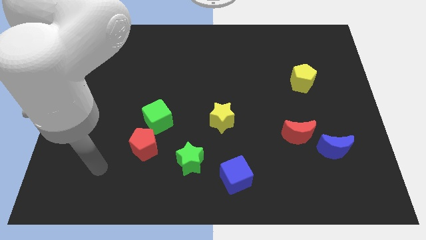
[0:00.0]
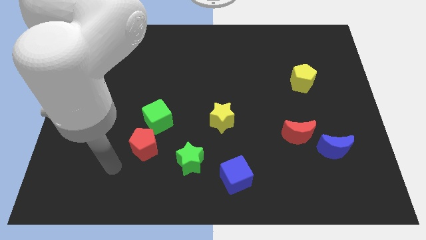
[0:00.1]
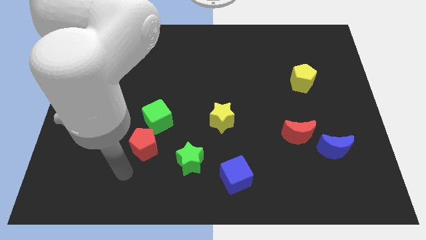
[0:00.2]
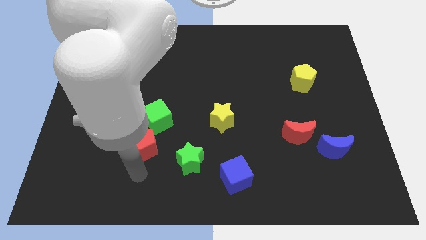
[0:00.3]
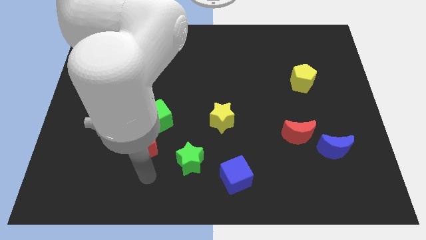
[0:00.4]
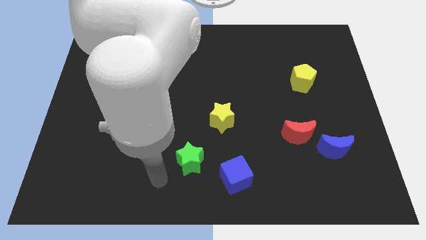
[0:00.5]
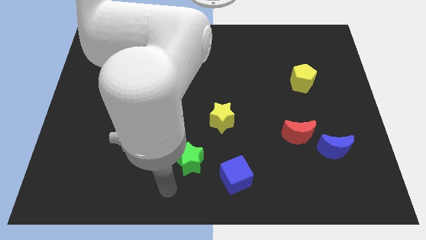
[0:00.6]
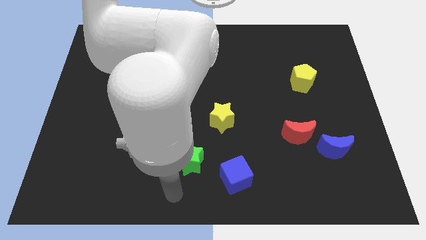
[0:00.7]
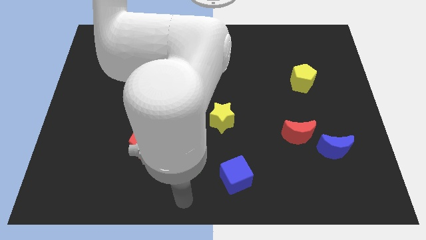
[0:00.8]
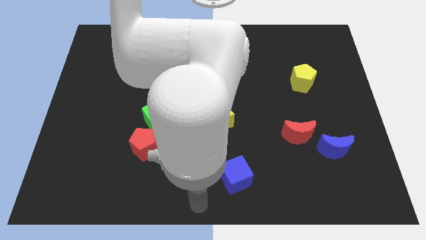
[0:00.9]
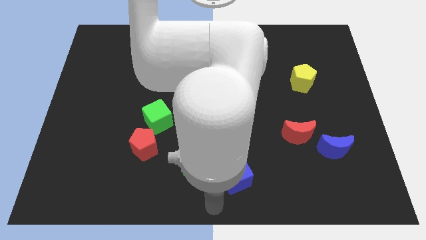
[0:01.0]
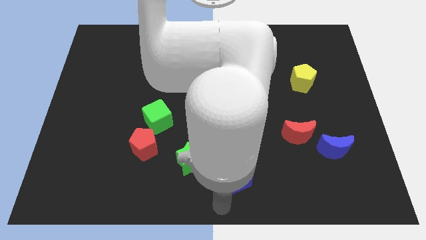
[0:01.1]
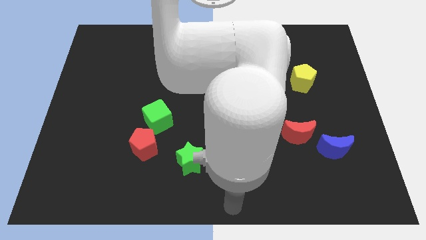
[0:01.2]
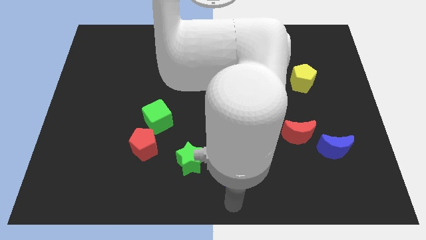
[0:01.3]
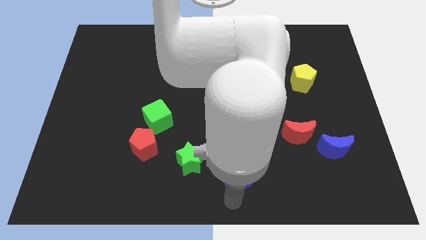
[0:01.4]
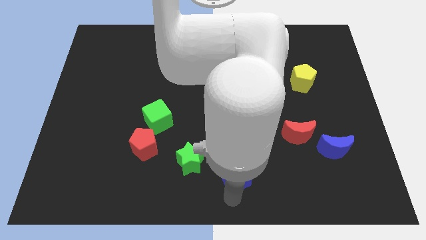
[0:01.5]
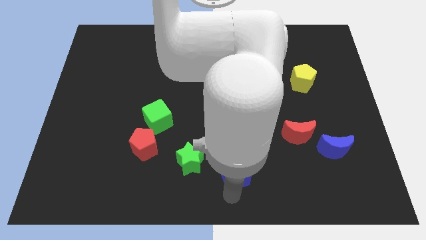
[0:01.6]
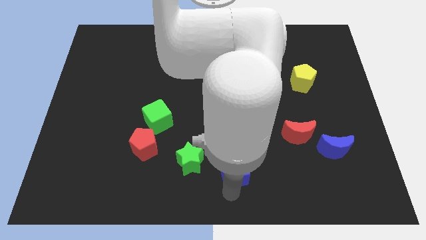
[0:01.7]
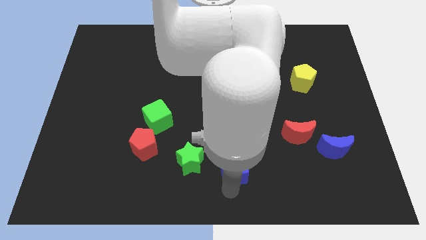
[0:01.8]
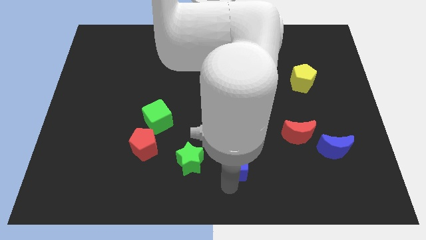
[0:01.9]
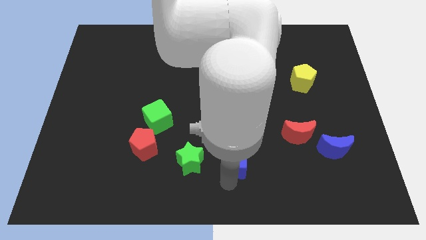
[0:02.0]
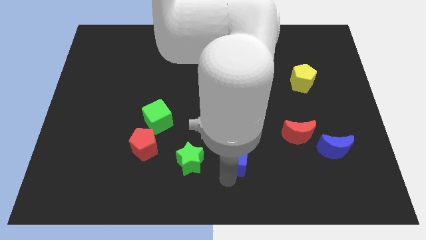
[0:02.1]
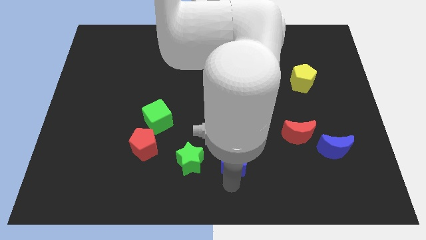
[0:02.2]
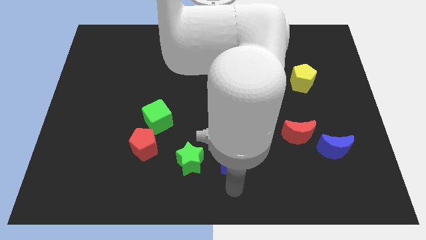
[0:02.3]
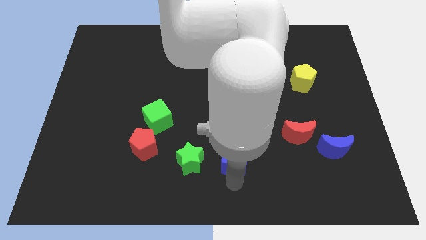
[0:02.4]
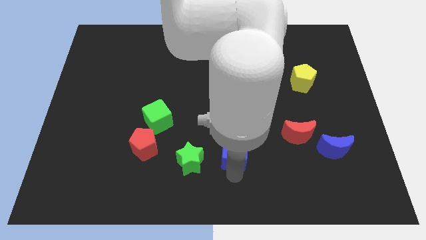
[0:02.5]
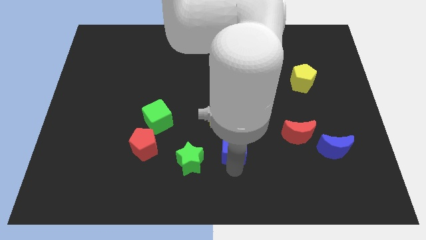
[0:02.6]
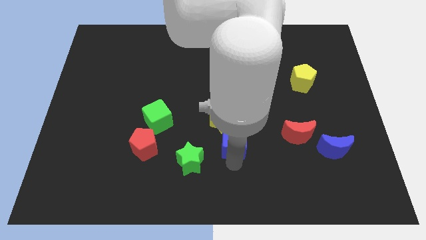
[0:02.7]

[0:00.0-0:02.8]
slightly push the blue cube up

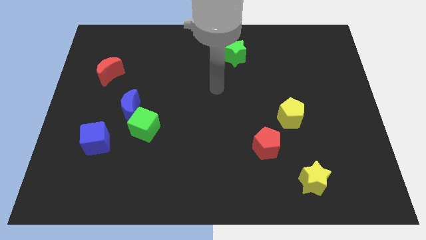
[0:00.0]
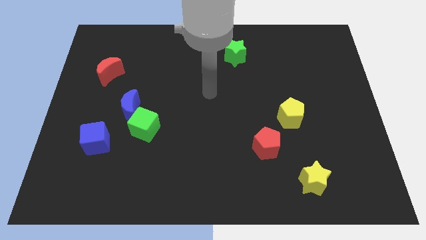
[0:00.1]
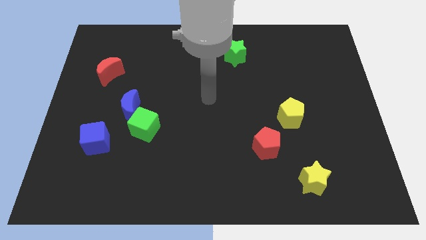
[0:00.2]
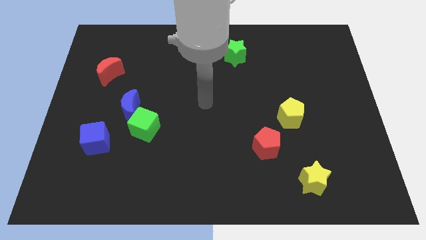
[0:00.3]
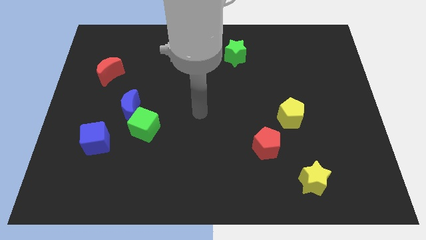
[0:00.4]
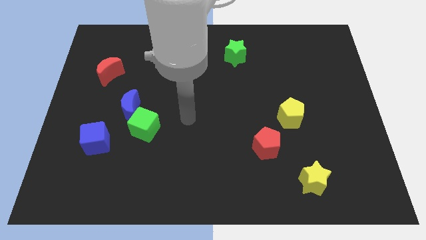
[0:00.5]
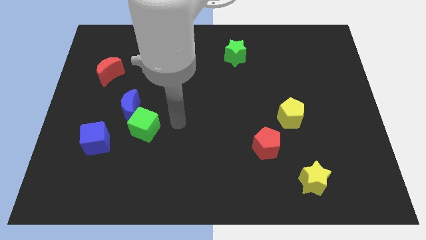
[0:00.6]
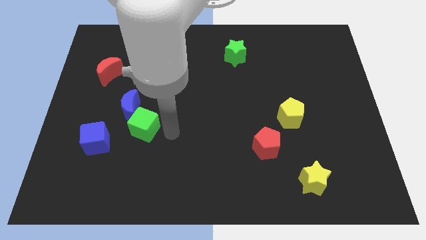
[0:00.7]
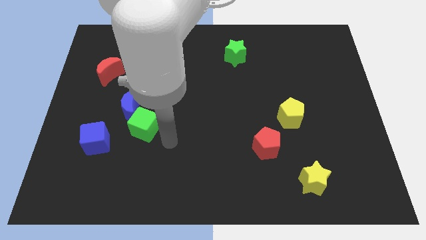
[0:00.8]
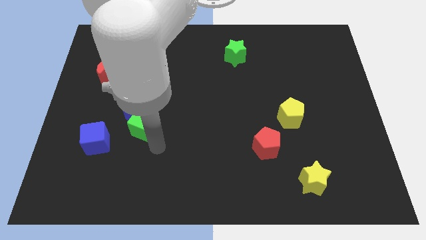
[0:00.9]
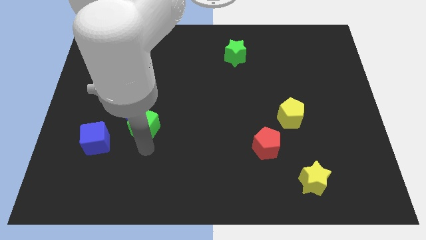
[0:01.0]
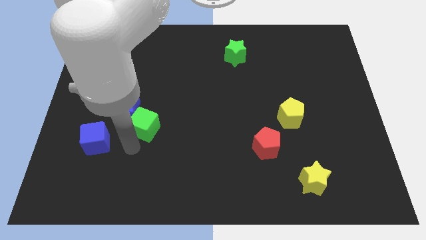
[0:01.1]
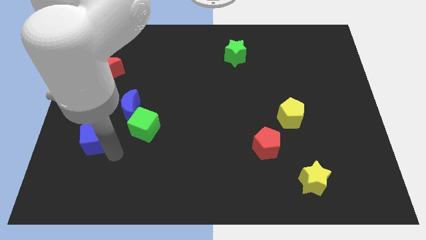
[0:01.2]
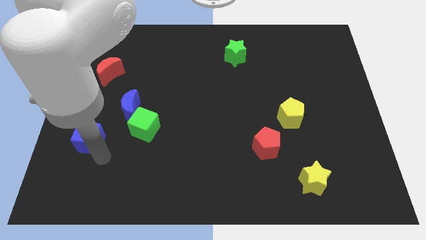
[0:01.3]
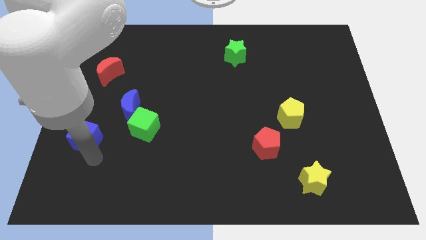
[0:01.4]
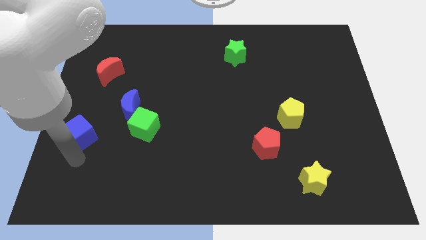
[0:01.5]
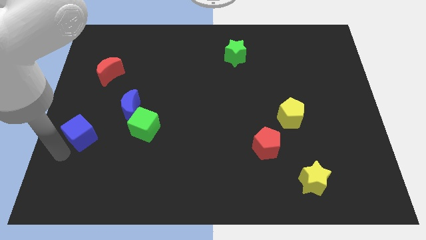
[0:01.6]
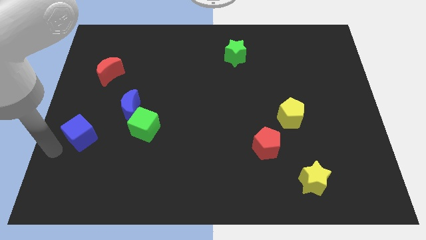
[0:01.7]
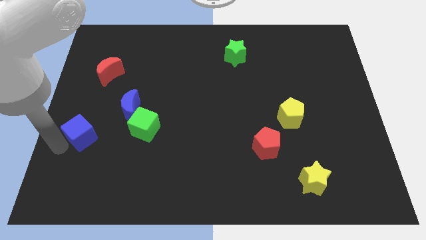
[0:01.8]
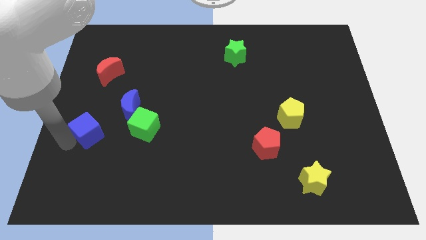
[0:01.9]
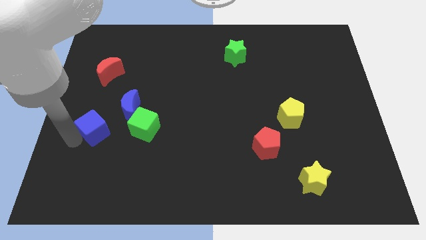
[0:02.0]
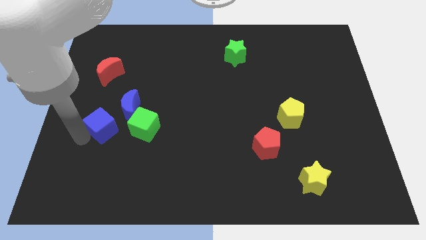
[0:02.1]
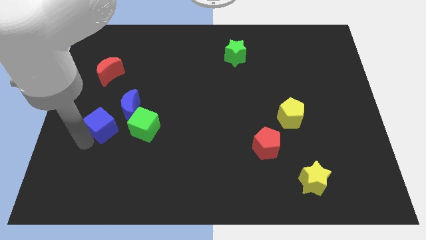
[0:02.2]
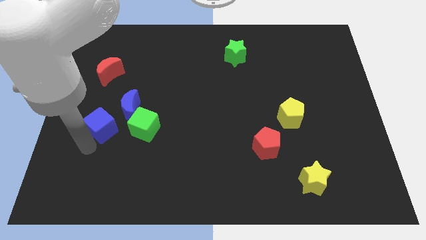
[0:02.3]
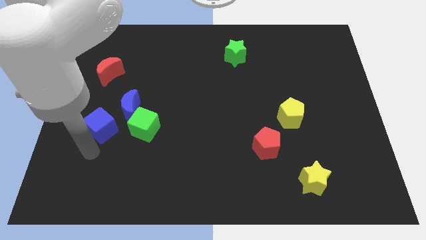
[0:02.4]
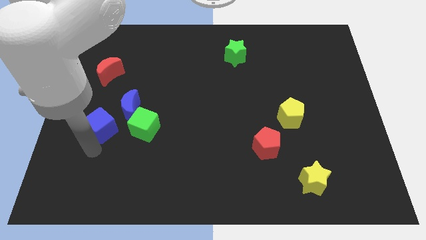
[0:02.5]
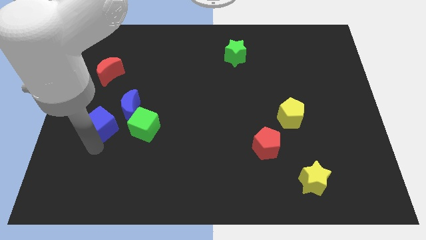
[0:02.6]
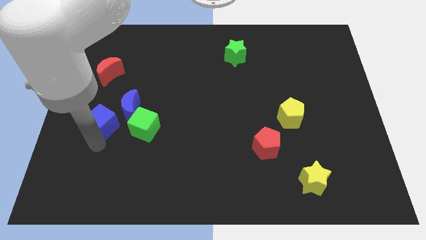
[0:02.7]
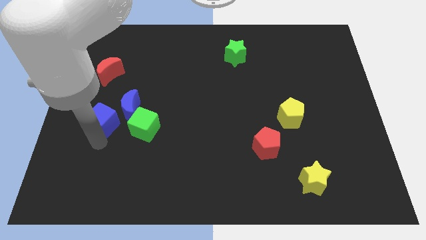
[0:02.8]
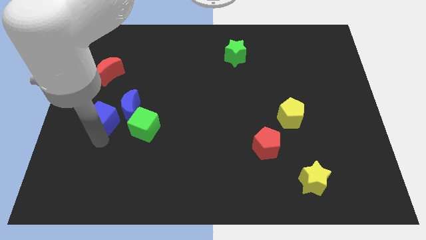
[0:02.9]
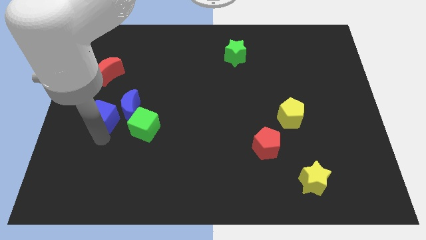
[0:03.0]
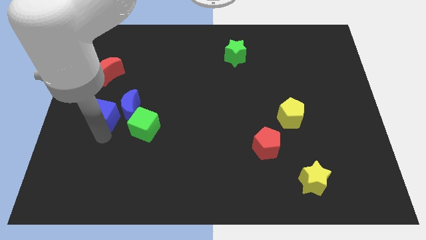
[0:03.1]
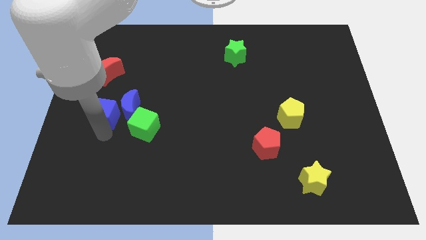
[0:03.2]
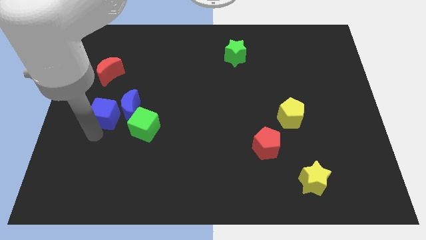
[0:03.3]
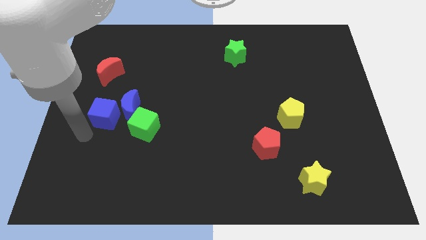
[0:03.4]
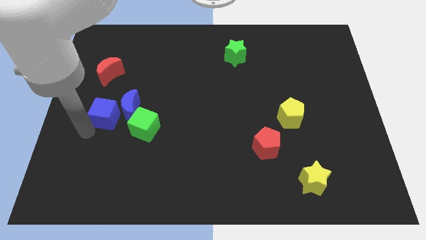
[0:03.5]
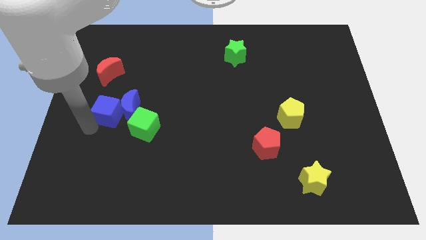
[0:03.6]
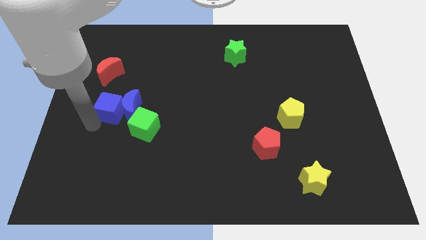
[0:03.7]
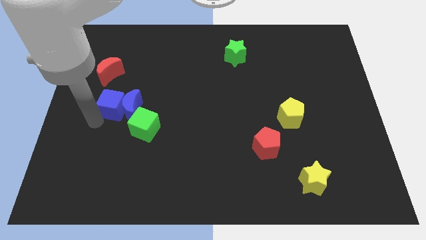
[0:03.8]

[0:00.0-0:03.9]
slightly move the blue cube diagonally upwards and to the right

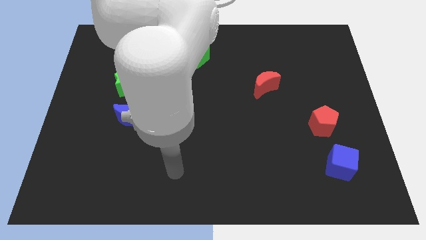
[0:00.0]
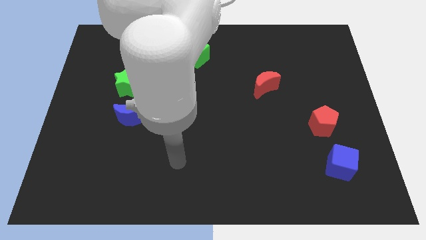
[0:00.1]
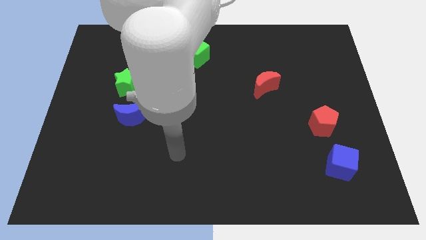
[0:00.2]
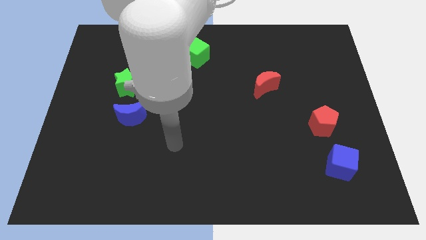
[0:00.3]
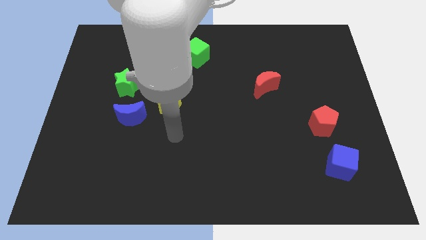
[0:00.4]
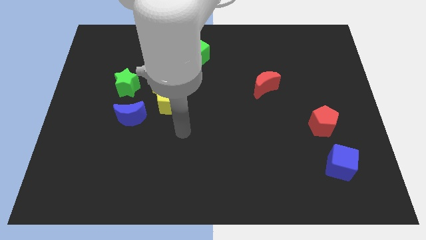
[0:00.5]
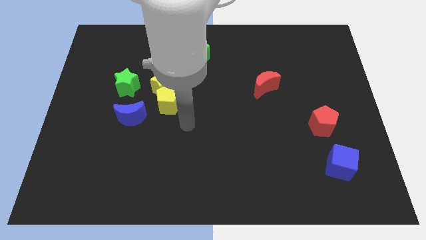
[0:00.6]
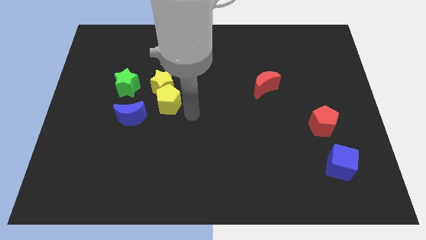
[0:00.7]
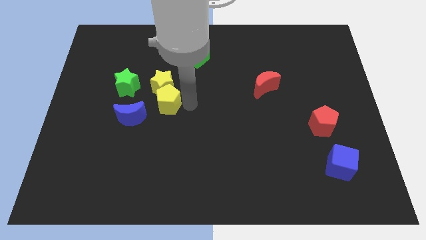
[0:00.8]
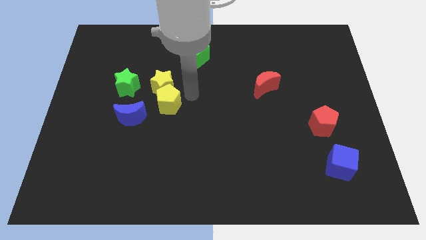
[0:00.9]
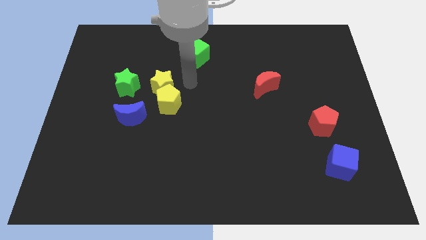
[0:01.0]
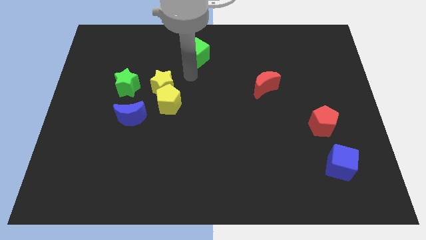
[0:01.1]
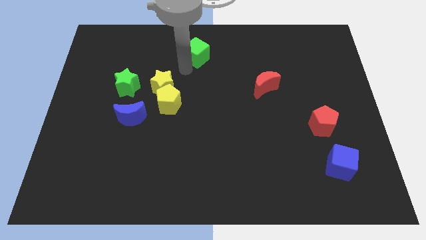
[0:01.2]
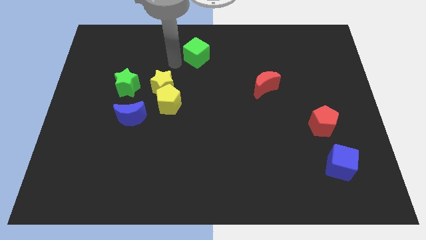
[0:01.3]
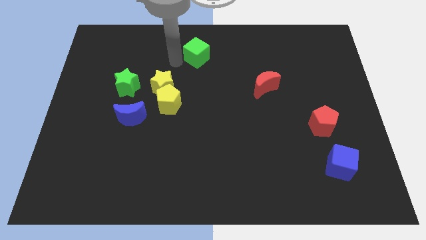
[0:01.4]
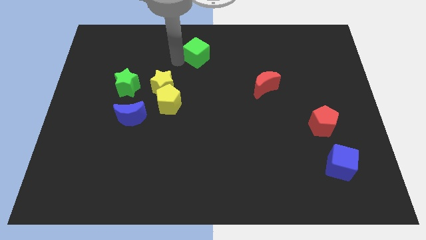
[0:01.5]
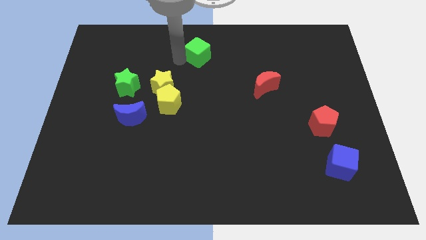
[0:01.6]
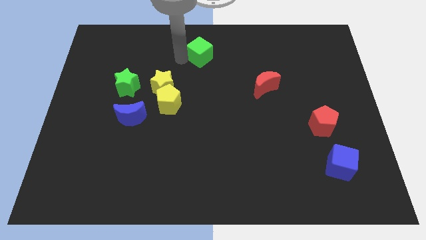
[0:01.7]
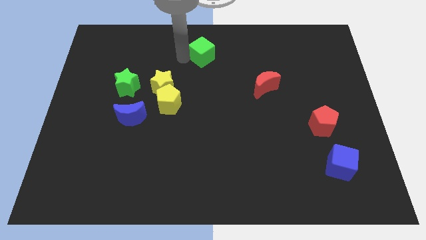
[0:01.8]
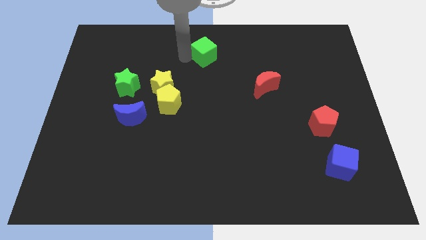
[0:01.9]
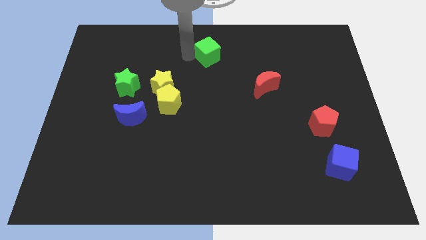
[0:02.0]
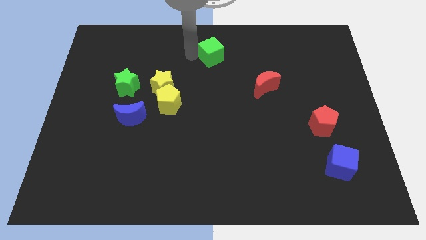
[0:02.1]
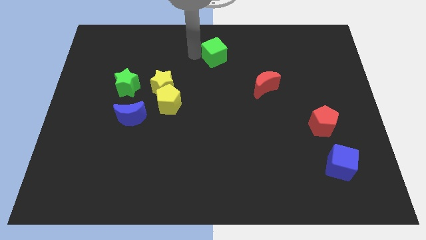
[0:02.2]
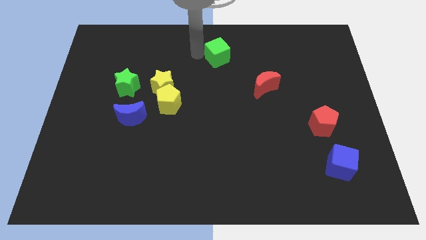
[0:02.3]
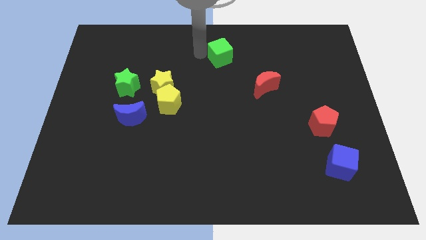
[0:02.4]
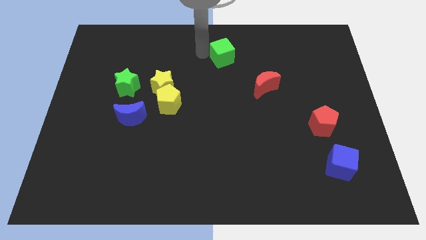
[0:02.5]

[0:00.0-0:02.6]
move the green cube a bit to the right
